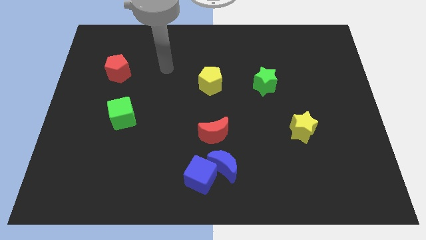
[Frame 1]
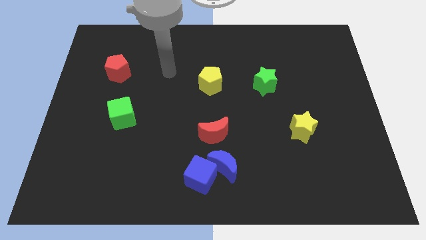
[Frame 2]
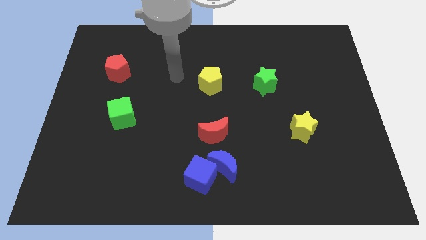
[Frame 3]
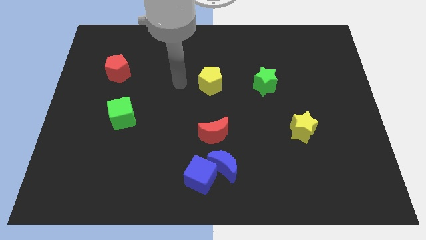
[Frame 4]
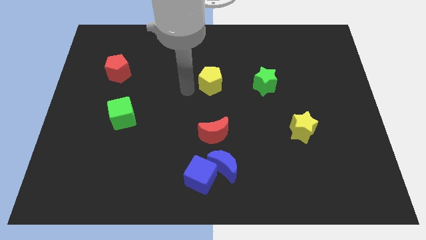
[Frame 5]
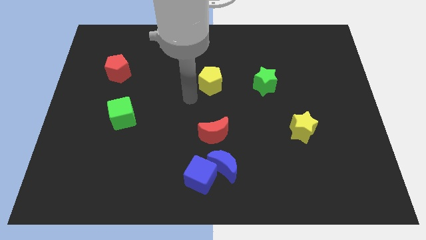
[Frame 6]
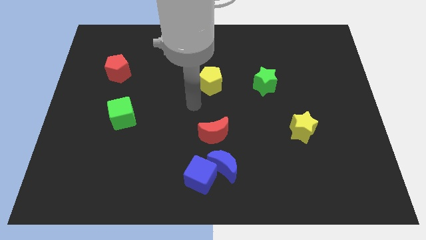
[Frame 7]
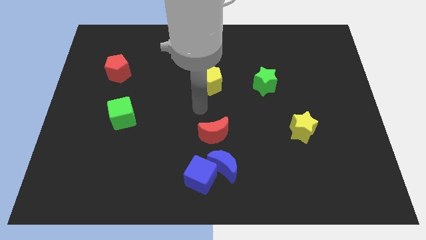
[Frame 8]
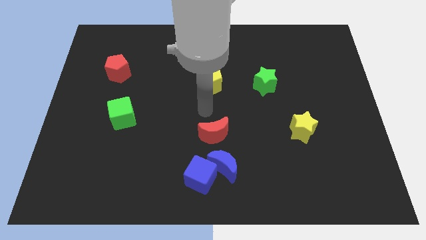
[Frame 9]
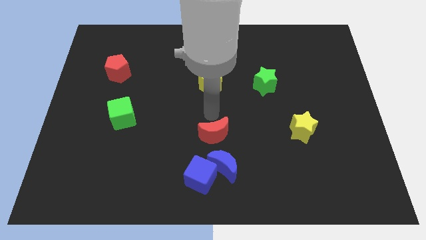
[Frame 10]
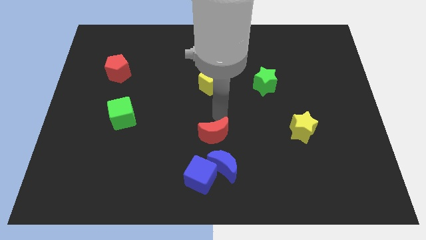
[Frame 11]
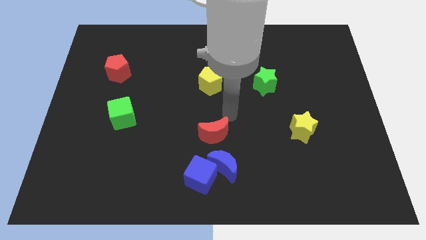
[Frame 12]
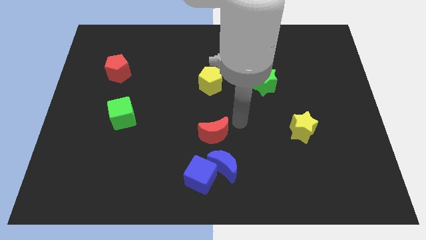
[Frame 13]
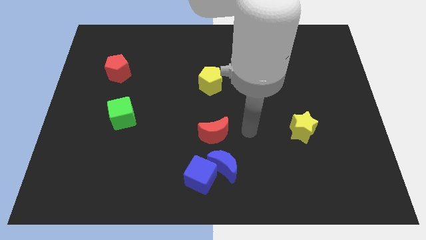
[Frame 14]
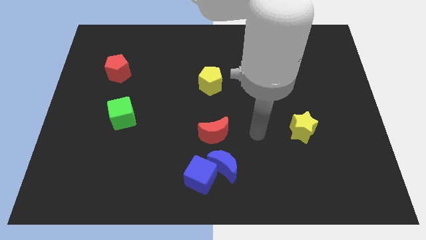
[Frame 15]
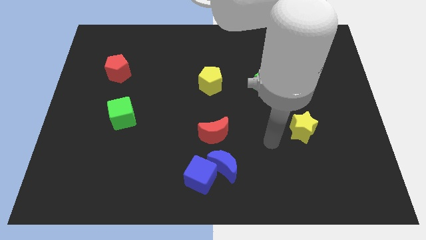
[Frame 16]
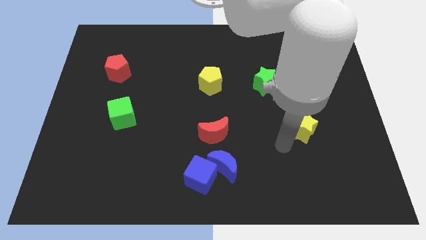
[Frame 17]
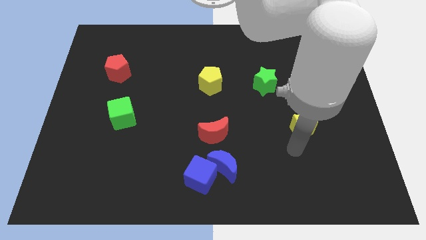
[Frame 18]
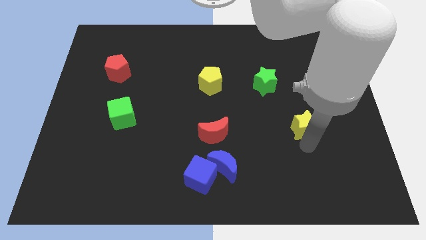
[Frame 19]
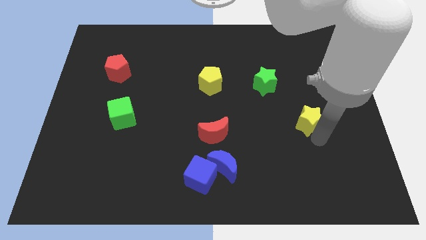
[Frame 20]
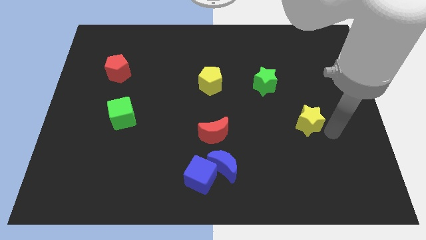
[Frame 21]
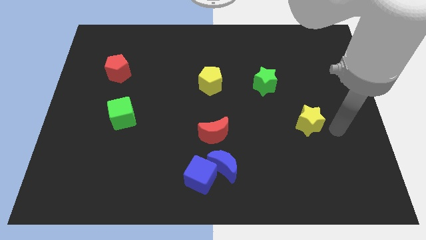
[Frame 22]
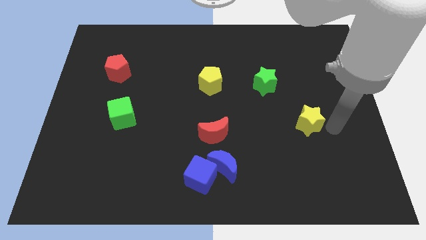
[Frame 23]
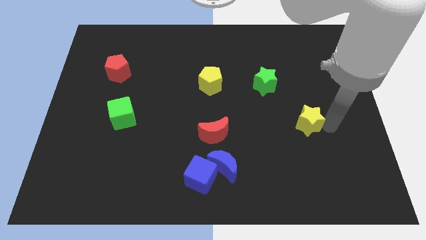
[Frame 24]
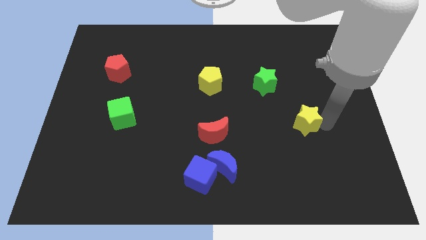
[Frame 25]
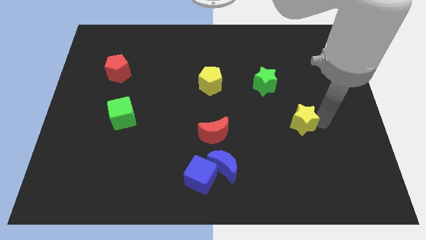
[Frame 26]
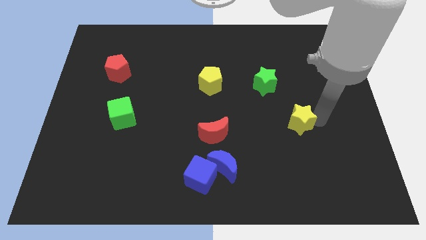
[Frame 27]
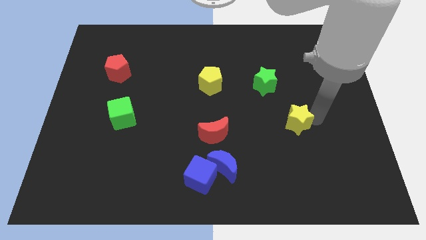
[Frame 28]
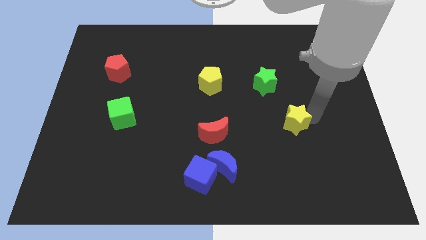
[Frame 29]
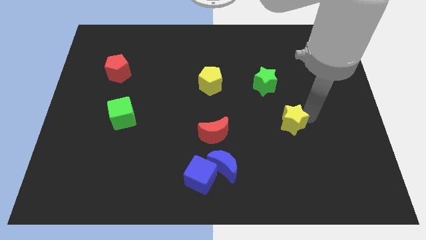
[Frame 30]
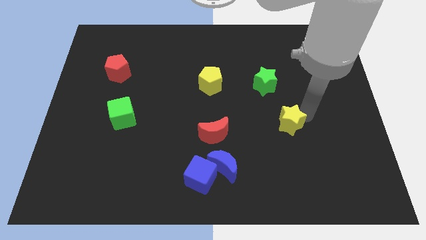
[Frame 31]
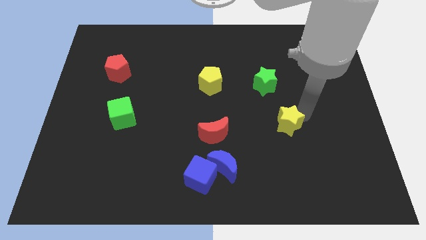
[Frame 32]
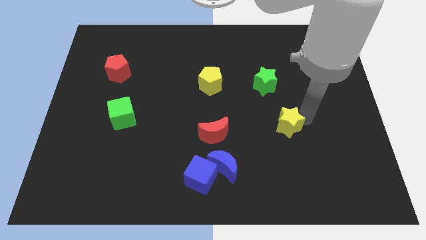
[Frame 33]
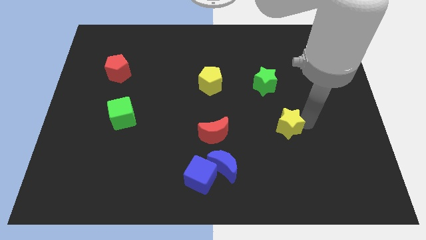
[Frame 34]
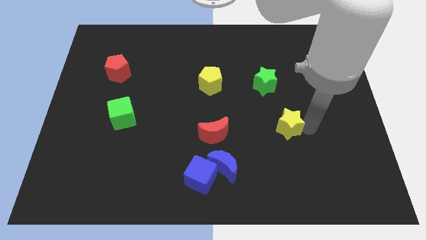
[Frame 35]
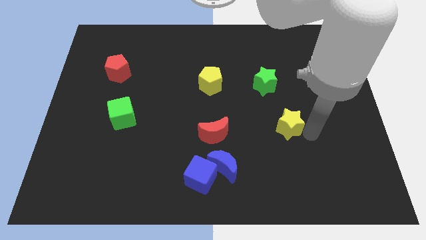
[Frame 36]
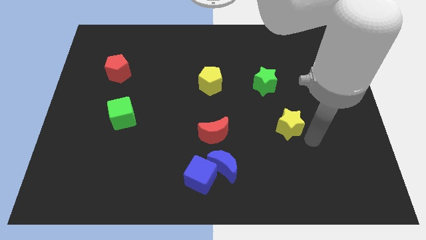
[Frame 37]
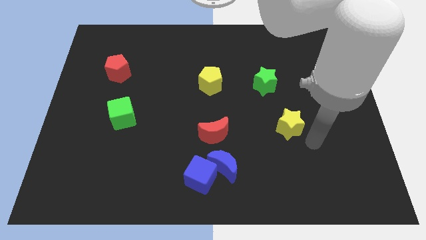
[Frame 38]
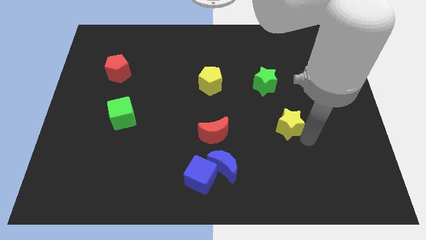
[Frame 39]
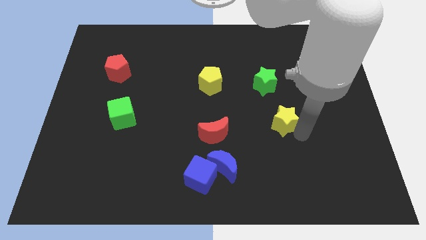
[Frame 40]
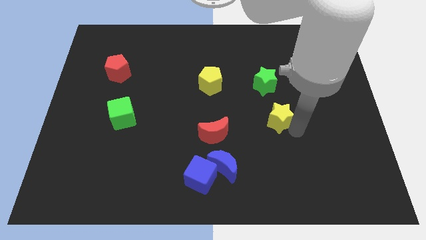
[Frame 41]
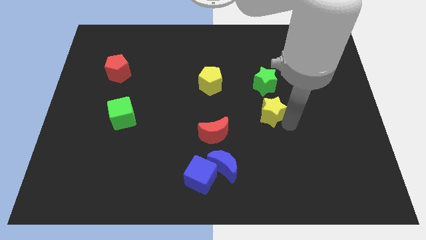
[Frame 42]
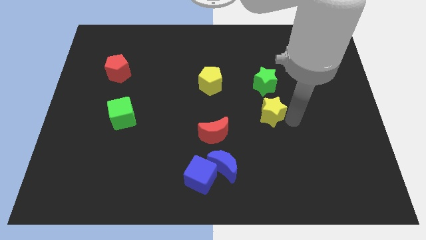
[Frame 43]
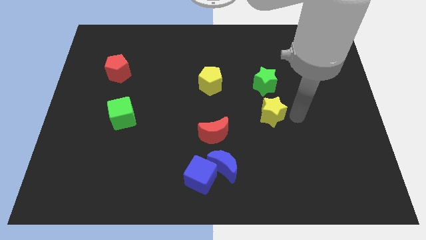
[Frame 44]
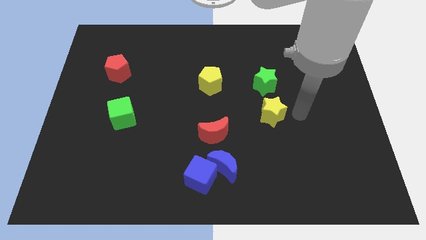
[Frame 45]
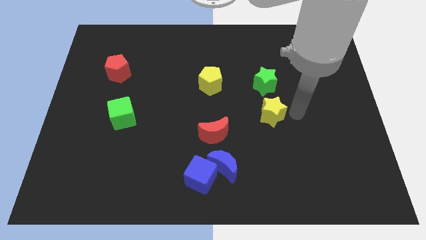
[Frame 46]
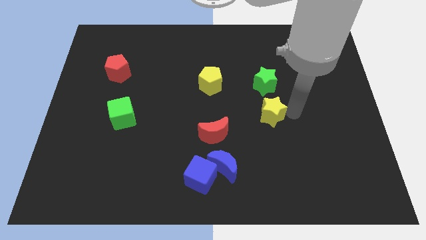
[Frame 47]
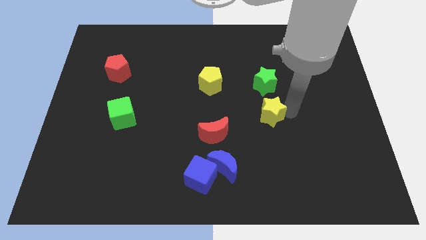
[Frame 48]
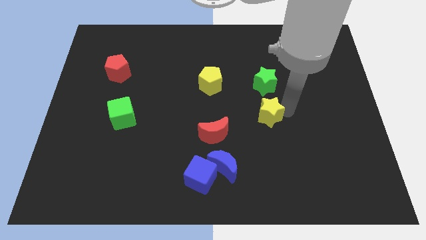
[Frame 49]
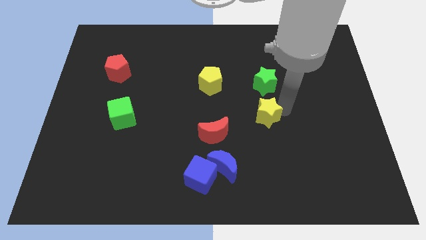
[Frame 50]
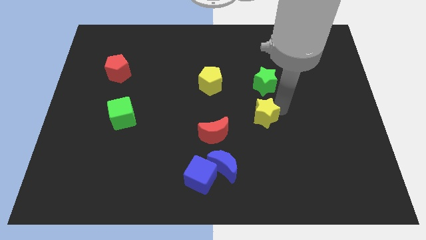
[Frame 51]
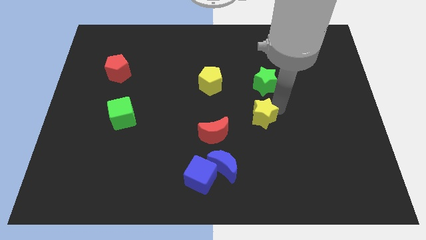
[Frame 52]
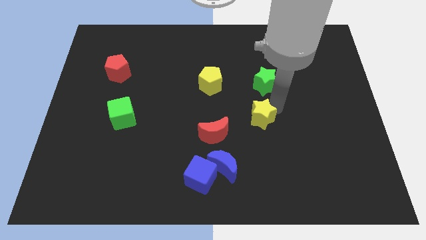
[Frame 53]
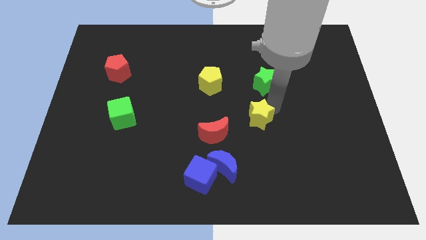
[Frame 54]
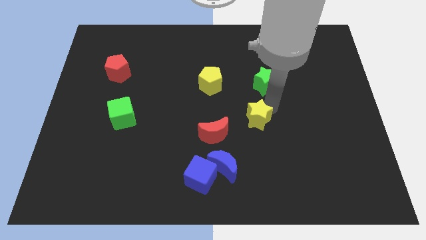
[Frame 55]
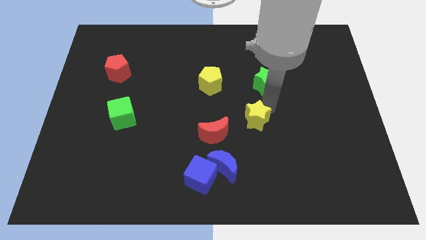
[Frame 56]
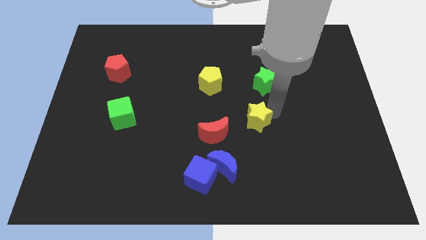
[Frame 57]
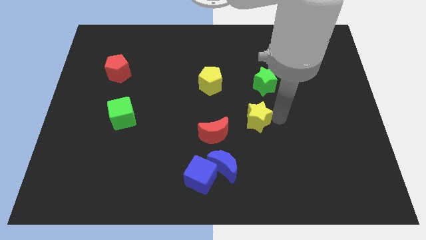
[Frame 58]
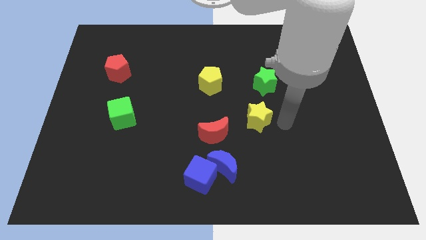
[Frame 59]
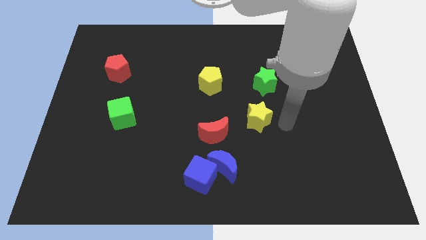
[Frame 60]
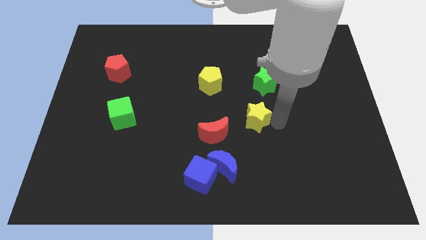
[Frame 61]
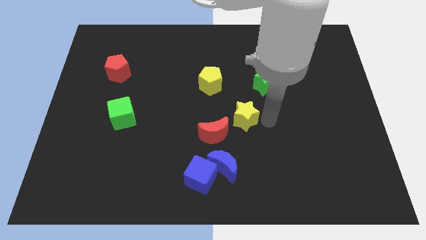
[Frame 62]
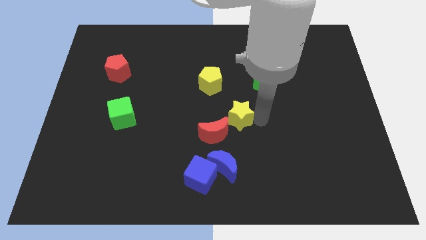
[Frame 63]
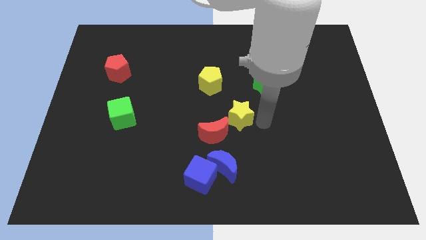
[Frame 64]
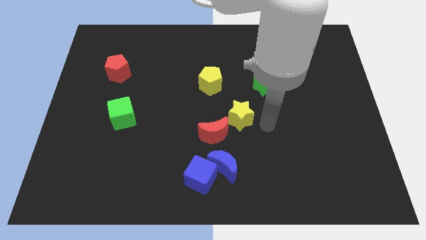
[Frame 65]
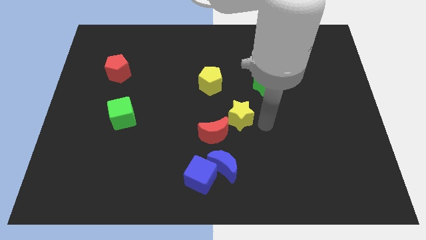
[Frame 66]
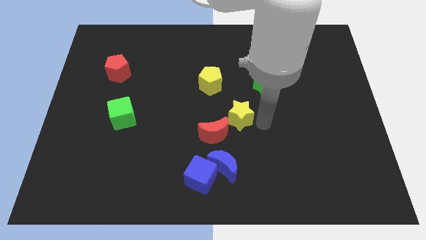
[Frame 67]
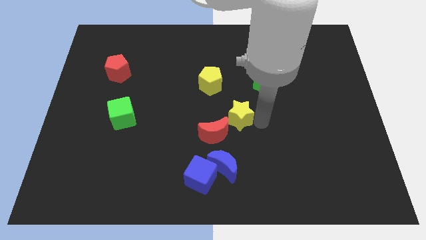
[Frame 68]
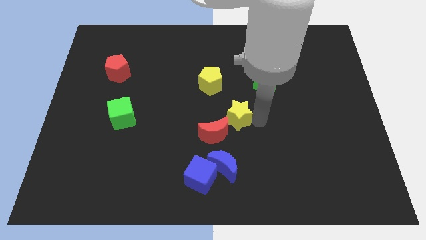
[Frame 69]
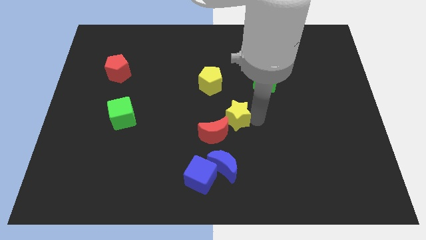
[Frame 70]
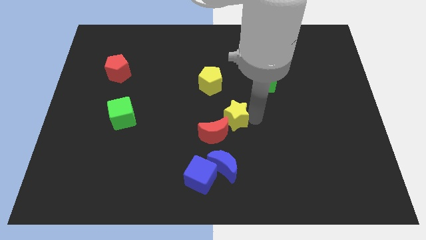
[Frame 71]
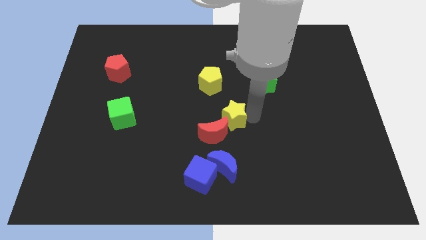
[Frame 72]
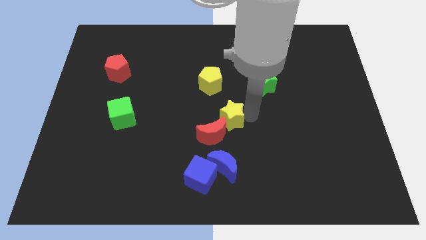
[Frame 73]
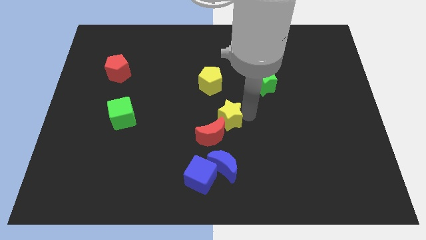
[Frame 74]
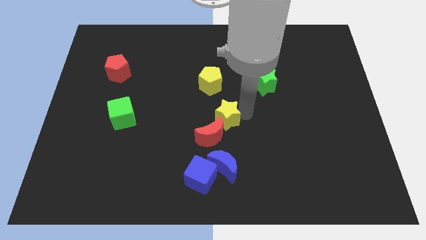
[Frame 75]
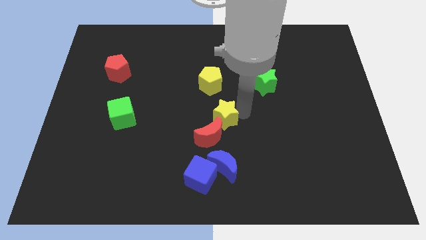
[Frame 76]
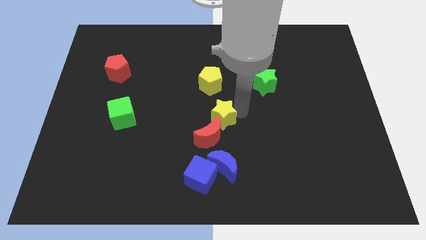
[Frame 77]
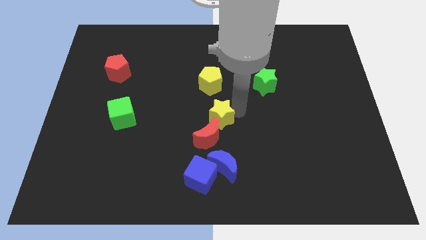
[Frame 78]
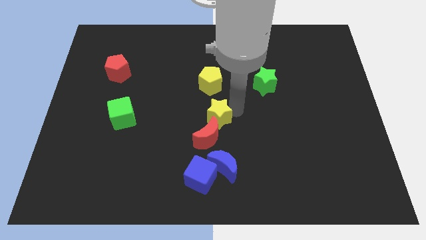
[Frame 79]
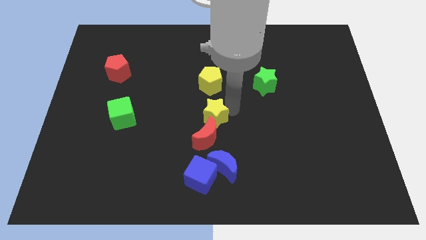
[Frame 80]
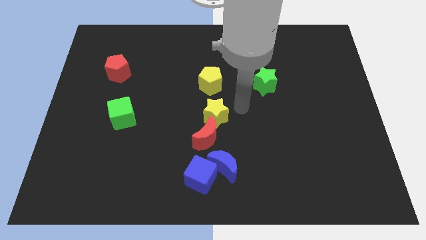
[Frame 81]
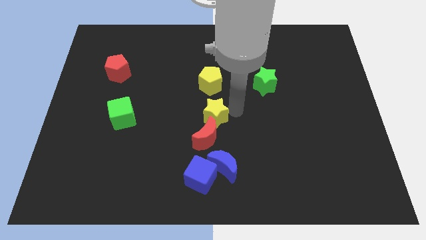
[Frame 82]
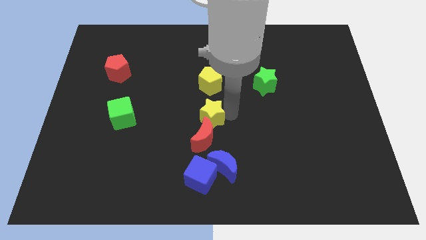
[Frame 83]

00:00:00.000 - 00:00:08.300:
move the yellow star left
